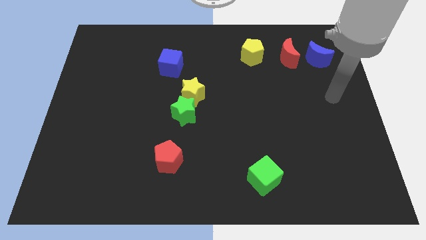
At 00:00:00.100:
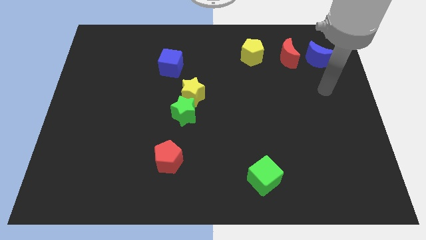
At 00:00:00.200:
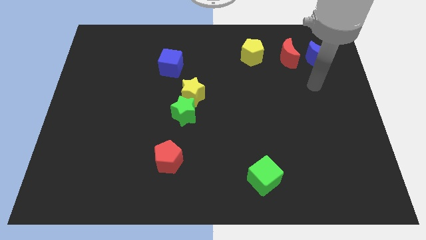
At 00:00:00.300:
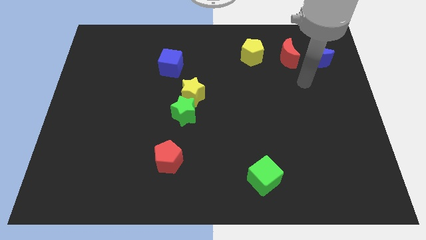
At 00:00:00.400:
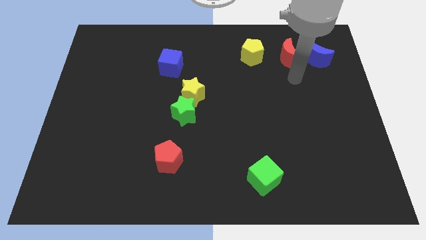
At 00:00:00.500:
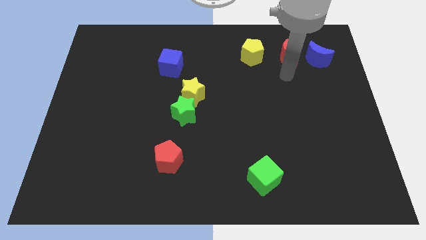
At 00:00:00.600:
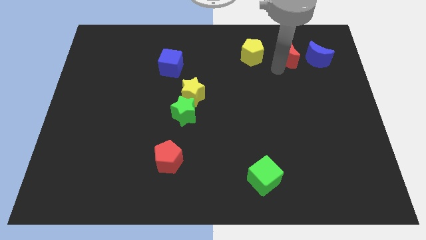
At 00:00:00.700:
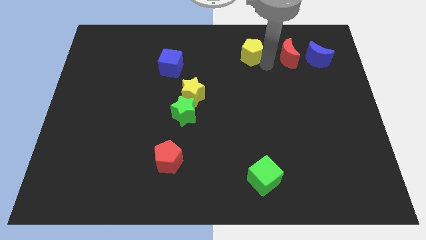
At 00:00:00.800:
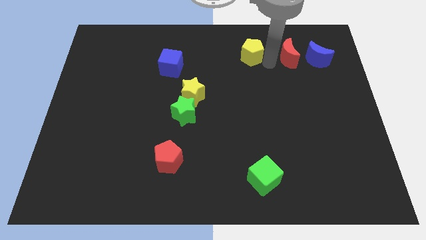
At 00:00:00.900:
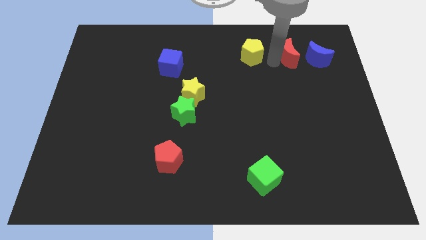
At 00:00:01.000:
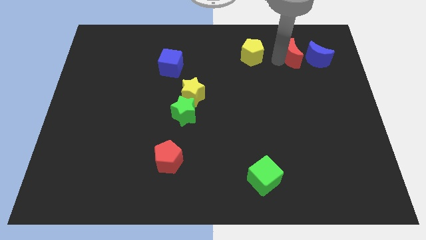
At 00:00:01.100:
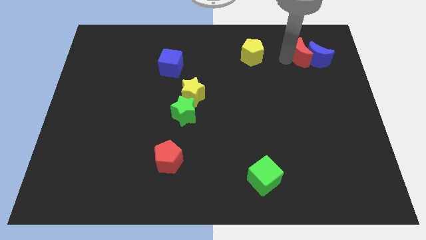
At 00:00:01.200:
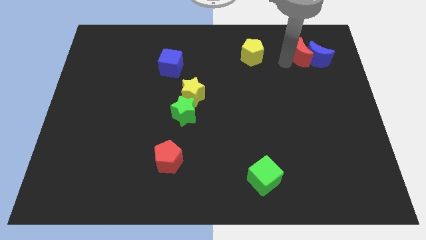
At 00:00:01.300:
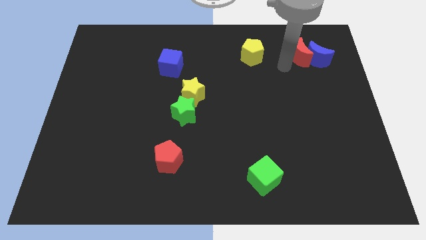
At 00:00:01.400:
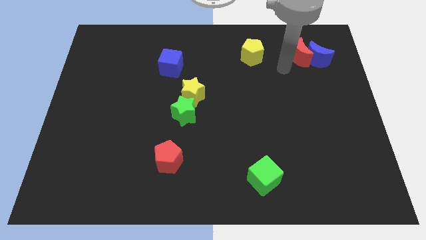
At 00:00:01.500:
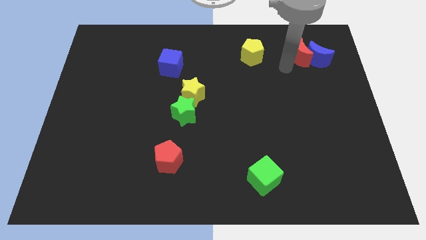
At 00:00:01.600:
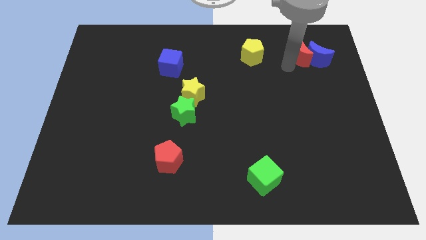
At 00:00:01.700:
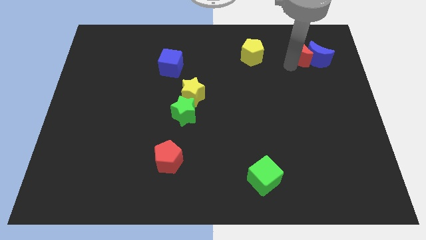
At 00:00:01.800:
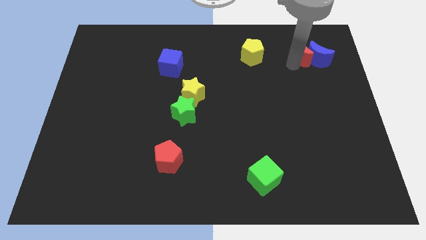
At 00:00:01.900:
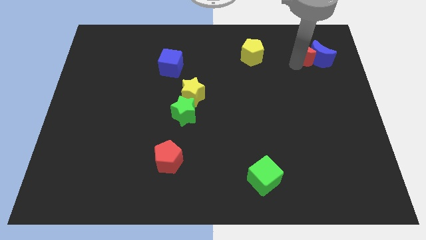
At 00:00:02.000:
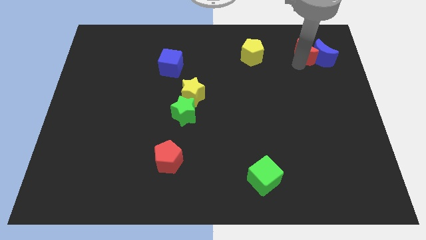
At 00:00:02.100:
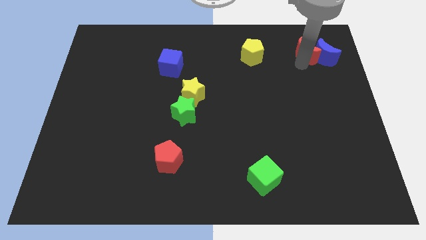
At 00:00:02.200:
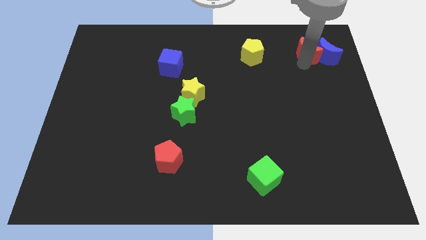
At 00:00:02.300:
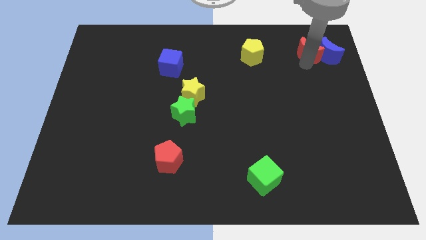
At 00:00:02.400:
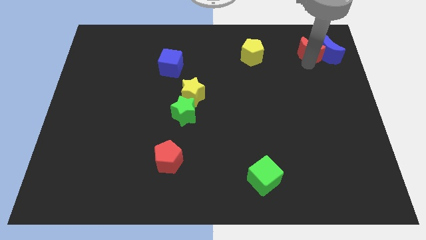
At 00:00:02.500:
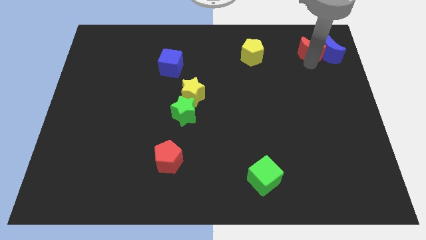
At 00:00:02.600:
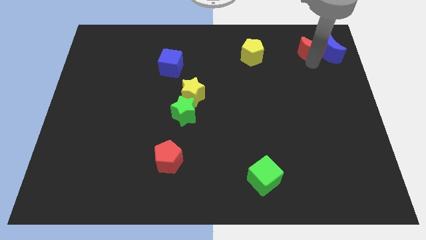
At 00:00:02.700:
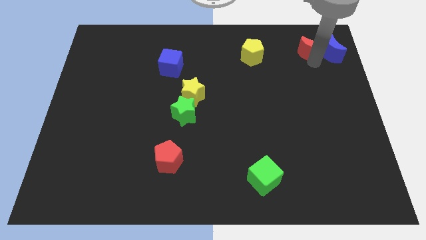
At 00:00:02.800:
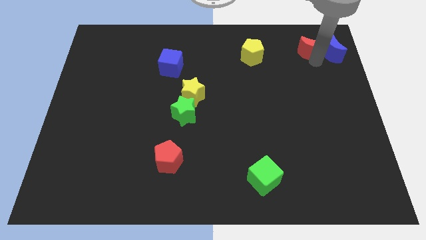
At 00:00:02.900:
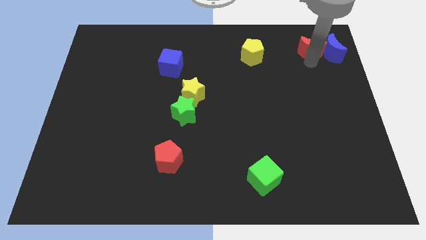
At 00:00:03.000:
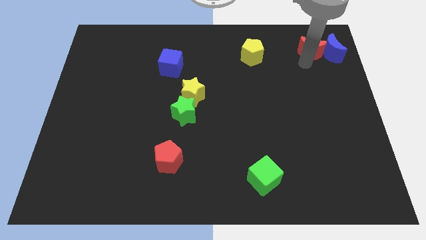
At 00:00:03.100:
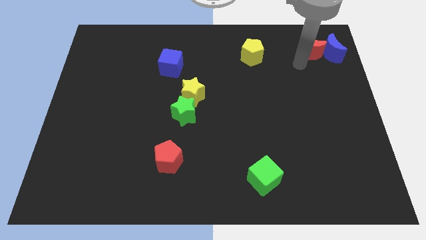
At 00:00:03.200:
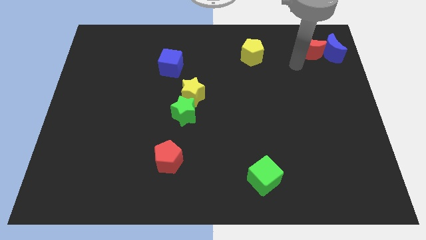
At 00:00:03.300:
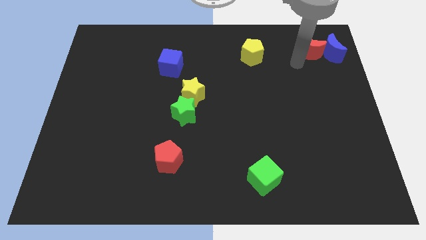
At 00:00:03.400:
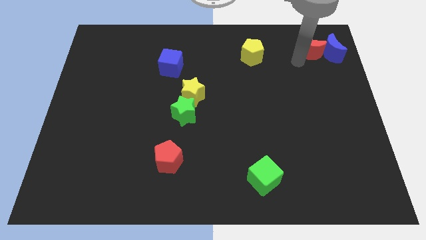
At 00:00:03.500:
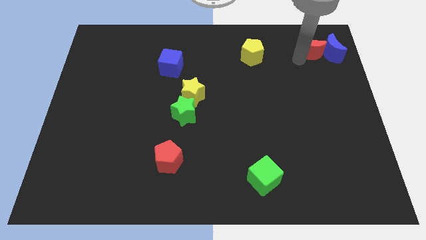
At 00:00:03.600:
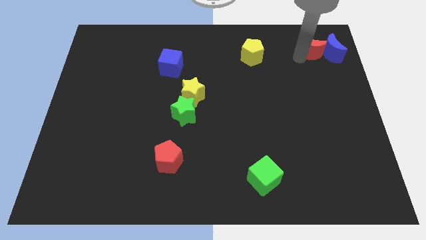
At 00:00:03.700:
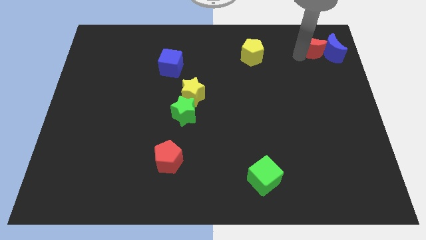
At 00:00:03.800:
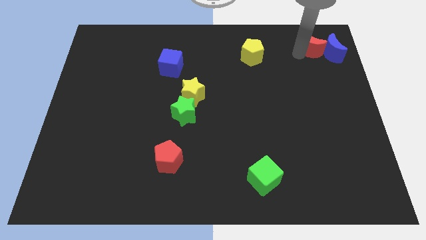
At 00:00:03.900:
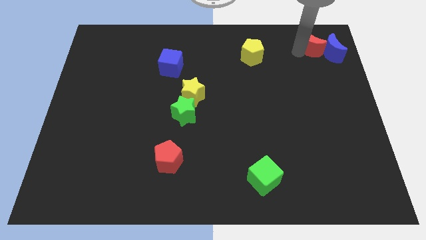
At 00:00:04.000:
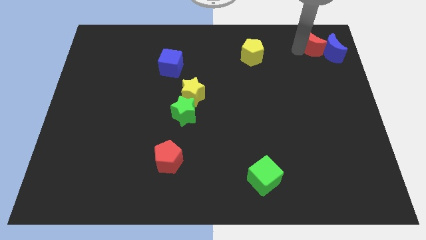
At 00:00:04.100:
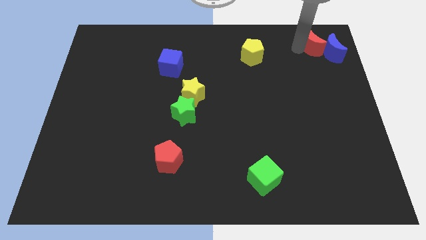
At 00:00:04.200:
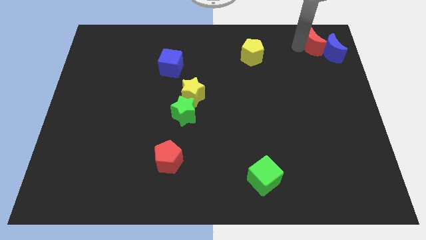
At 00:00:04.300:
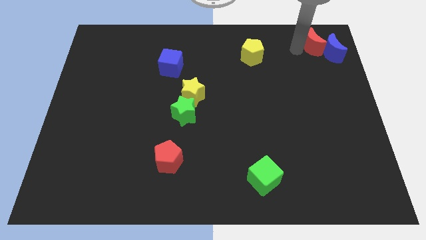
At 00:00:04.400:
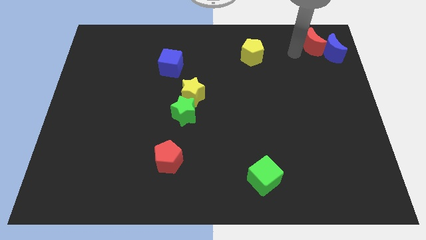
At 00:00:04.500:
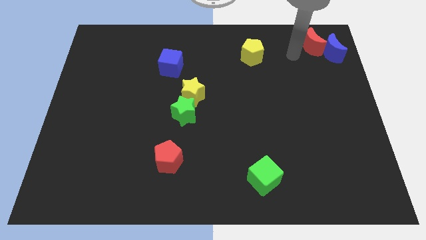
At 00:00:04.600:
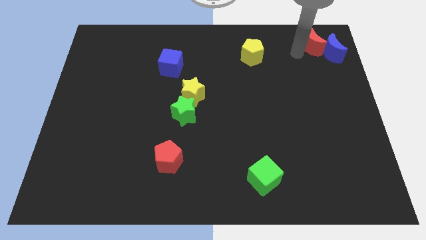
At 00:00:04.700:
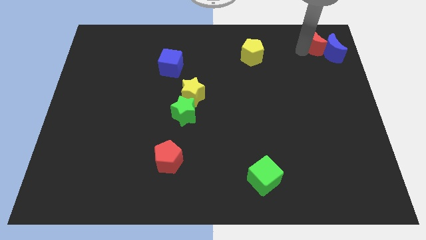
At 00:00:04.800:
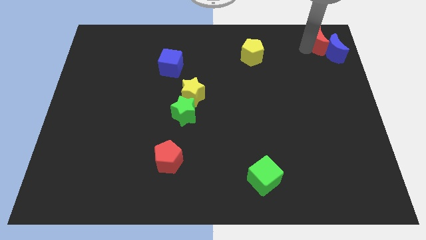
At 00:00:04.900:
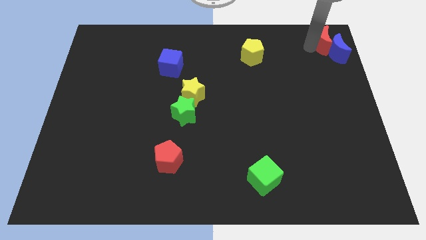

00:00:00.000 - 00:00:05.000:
move the red moon to the top right of the board

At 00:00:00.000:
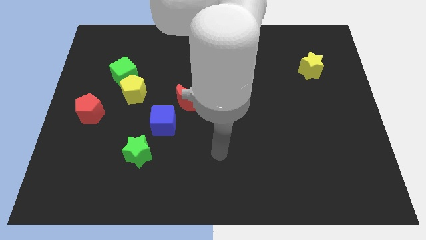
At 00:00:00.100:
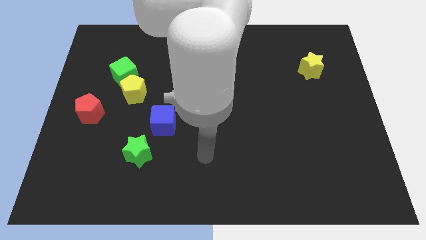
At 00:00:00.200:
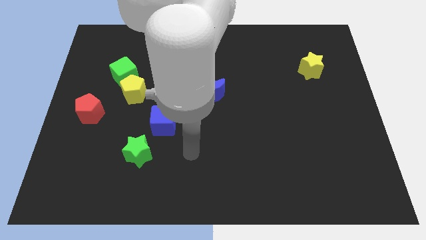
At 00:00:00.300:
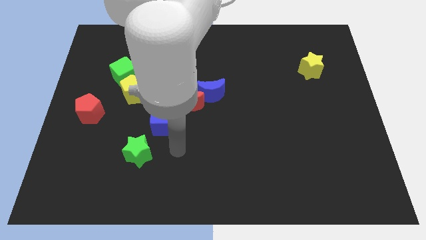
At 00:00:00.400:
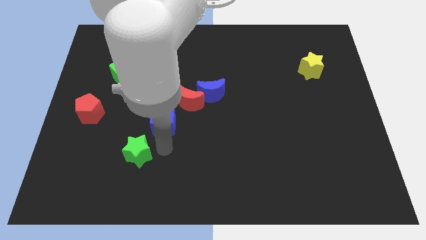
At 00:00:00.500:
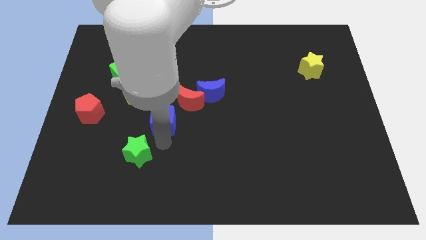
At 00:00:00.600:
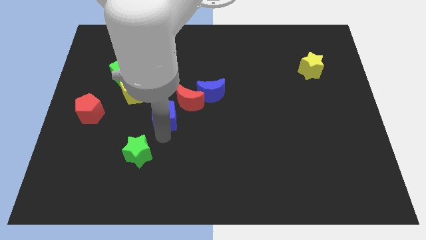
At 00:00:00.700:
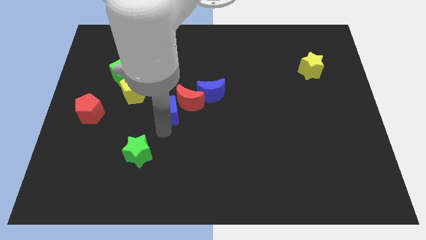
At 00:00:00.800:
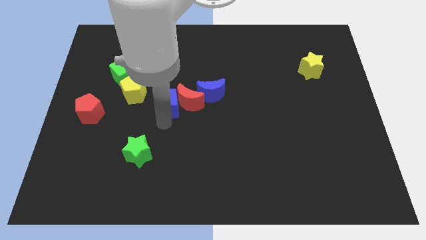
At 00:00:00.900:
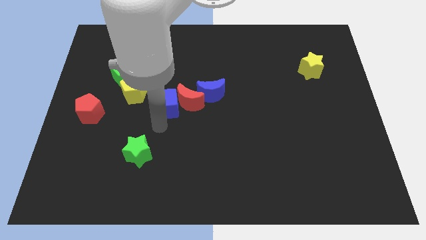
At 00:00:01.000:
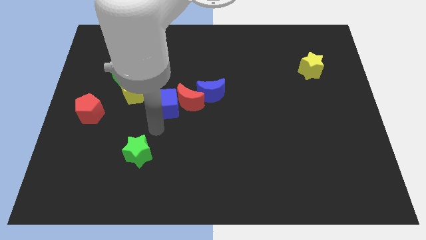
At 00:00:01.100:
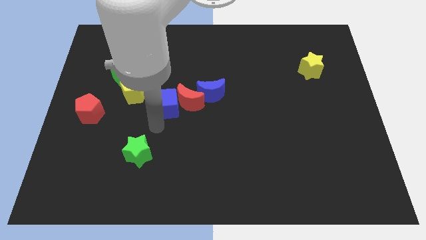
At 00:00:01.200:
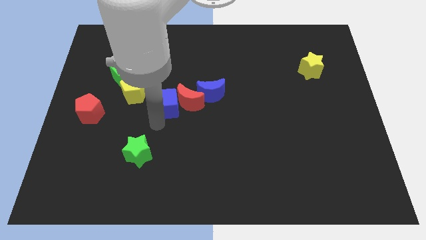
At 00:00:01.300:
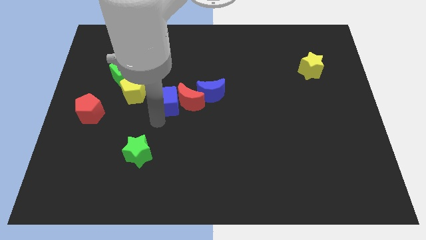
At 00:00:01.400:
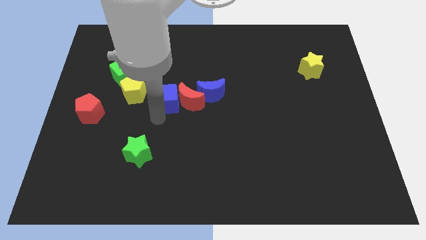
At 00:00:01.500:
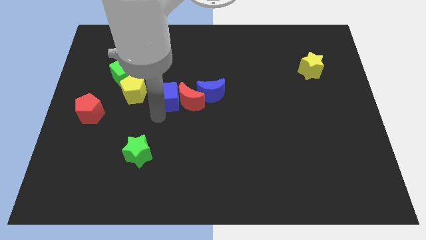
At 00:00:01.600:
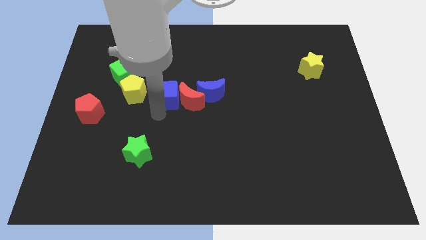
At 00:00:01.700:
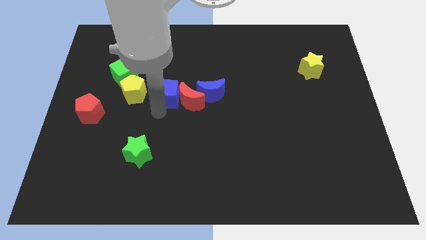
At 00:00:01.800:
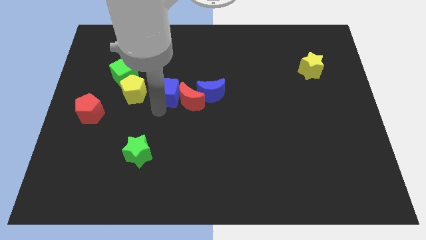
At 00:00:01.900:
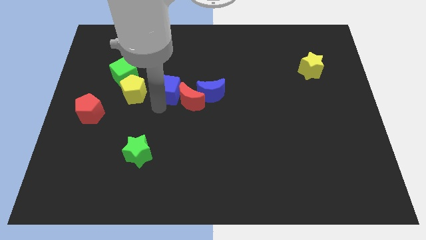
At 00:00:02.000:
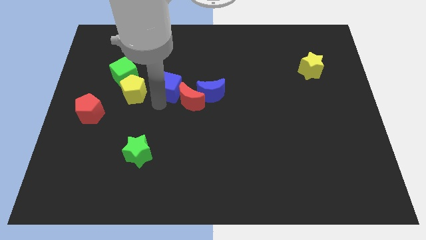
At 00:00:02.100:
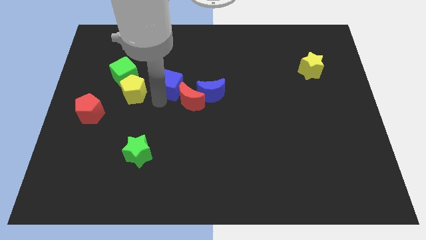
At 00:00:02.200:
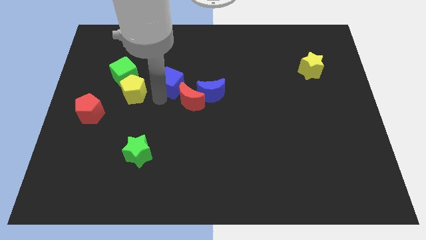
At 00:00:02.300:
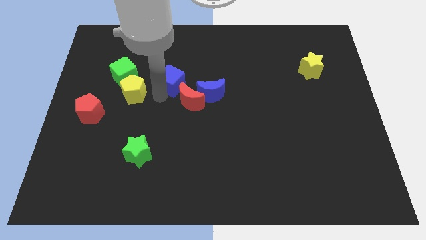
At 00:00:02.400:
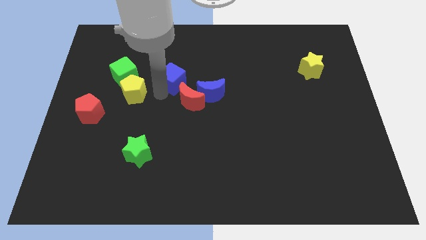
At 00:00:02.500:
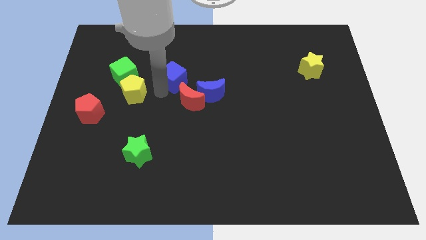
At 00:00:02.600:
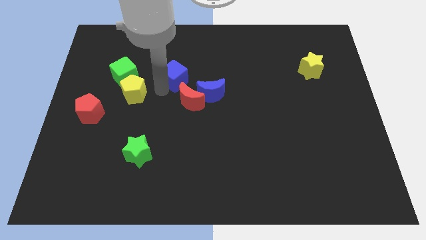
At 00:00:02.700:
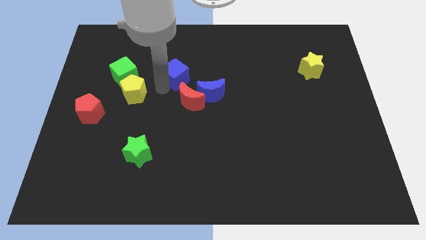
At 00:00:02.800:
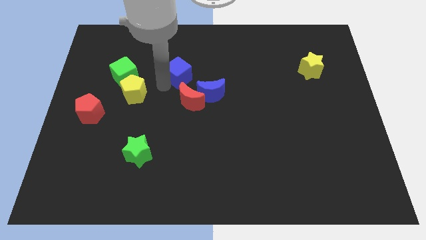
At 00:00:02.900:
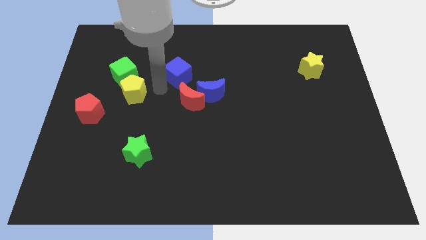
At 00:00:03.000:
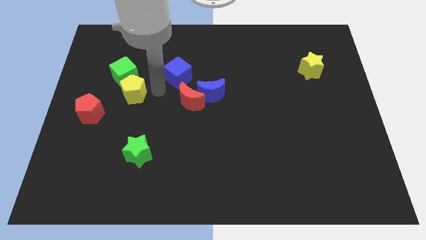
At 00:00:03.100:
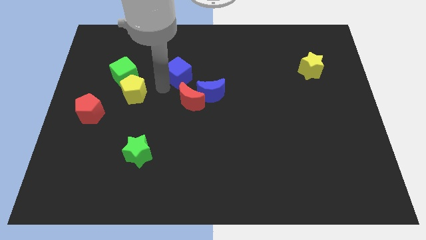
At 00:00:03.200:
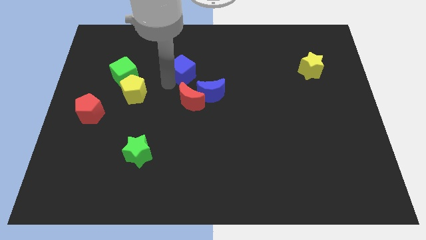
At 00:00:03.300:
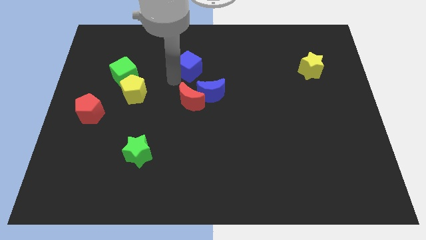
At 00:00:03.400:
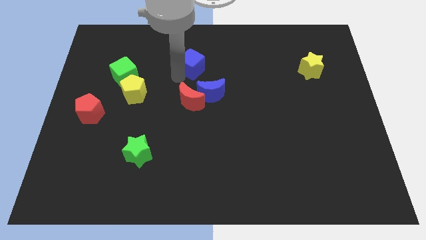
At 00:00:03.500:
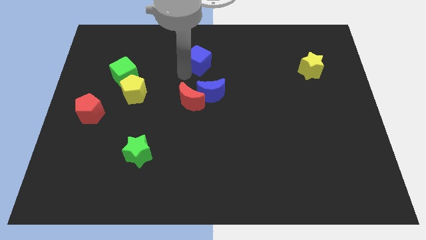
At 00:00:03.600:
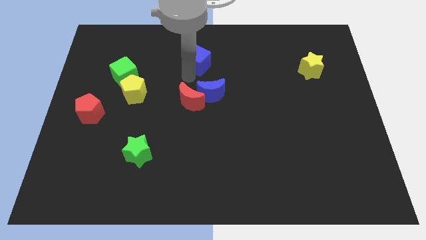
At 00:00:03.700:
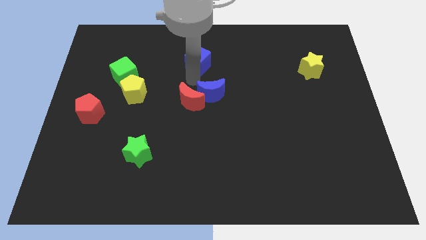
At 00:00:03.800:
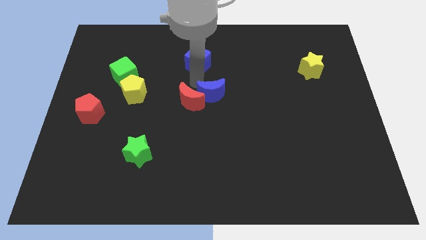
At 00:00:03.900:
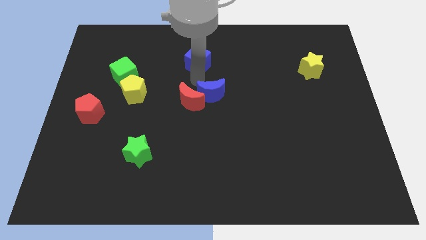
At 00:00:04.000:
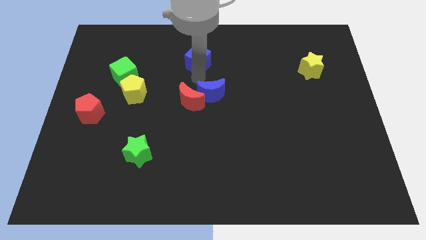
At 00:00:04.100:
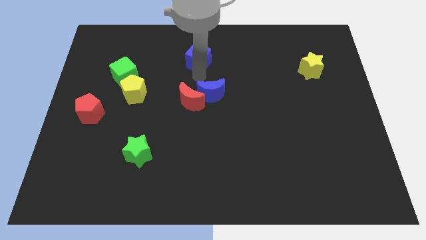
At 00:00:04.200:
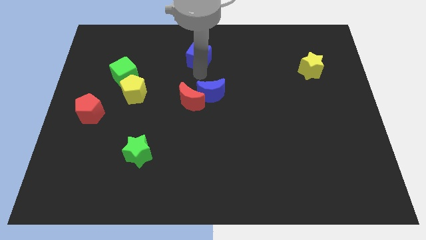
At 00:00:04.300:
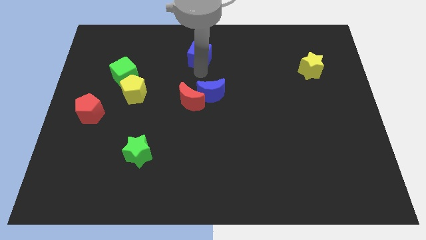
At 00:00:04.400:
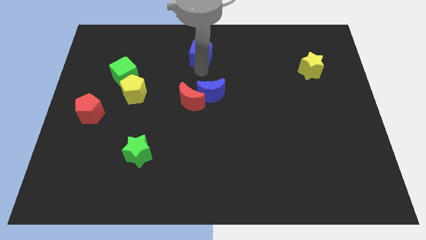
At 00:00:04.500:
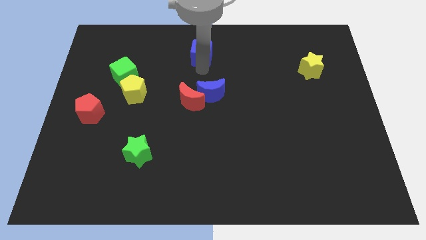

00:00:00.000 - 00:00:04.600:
put the blue cube to the towards your base
